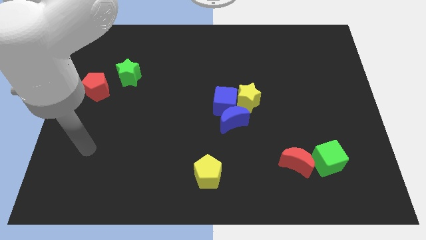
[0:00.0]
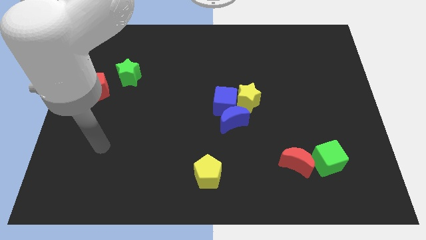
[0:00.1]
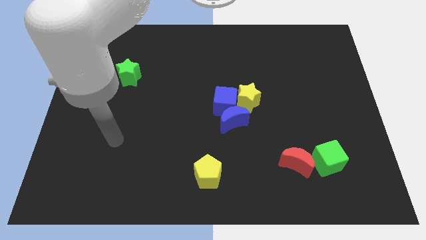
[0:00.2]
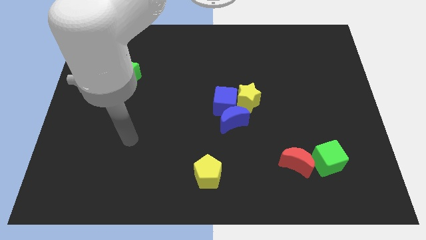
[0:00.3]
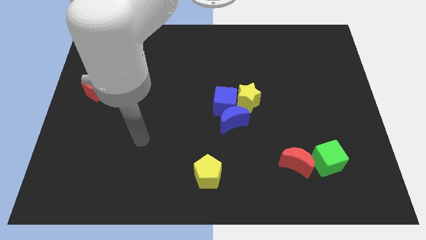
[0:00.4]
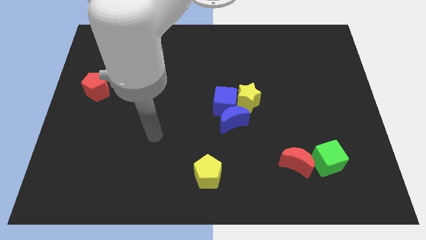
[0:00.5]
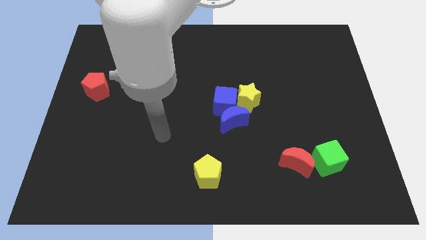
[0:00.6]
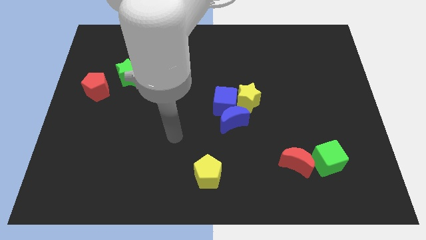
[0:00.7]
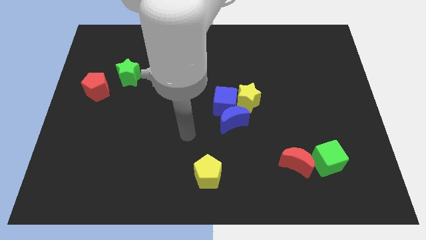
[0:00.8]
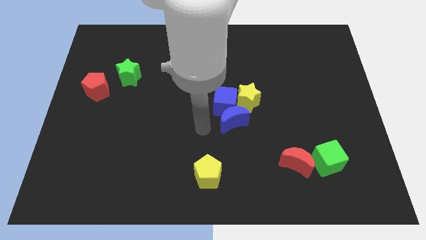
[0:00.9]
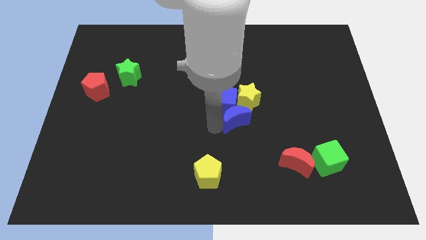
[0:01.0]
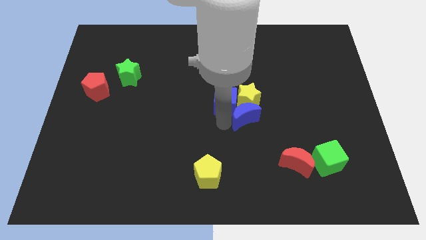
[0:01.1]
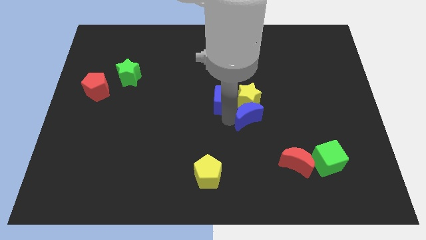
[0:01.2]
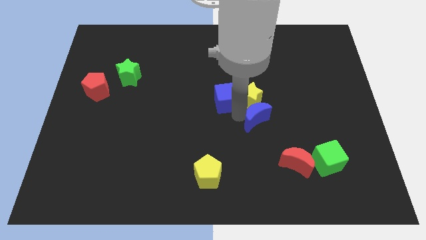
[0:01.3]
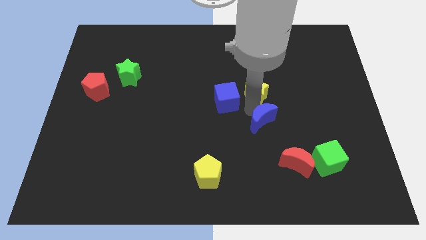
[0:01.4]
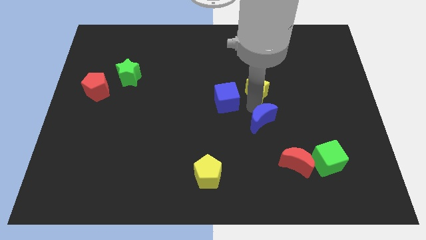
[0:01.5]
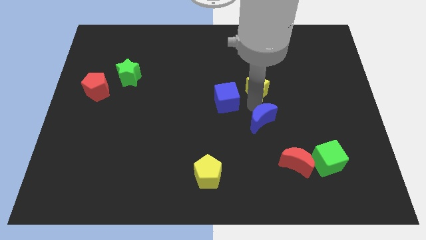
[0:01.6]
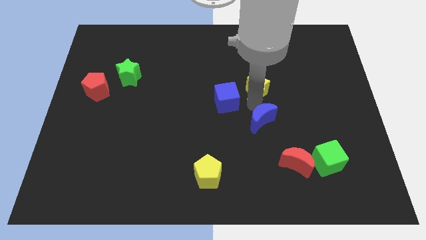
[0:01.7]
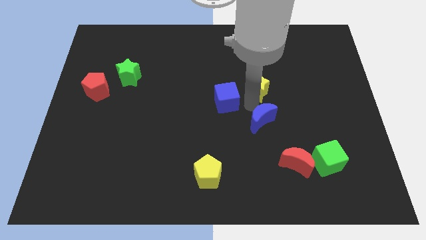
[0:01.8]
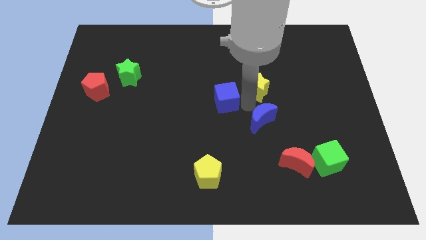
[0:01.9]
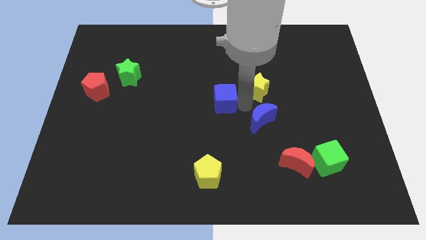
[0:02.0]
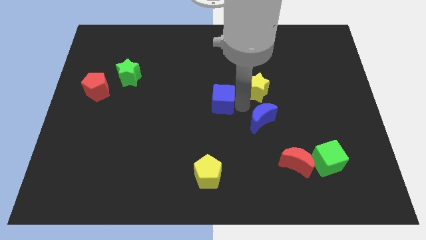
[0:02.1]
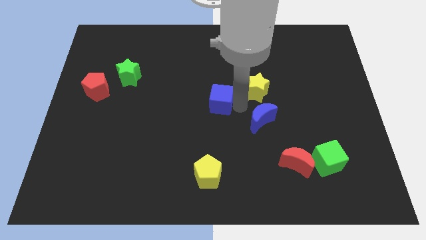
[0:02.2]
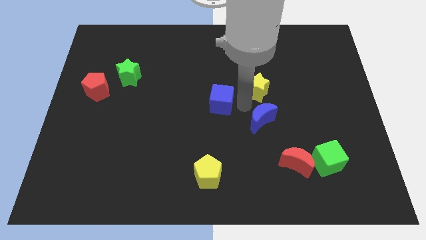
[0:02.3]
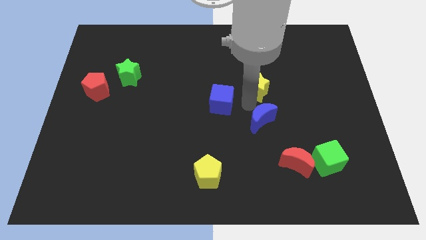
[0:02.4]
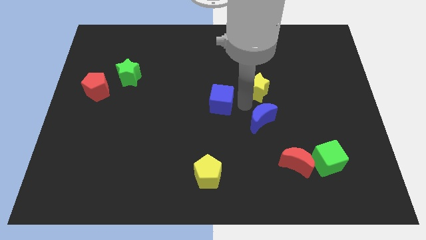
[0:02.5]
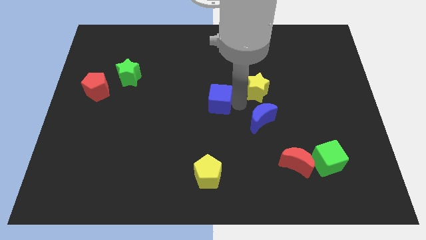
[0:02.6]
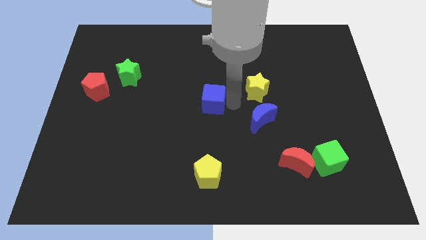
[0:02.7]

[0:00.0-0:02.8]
pull the blue cube apart from the blue moon and yellow star

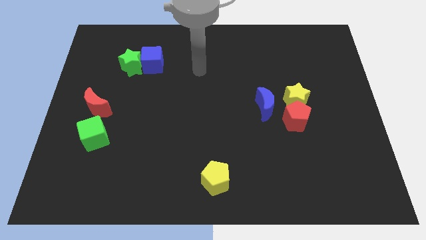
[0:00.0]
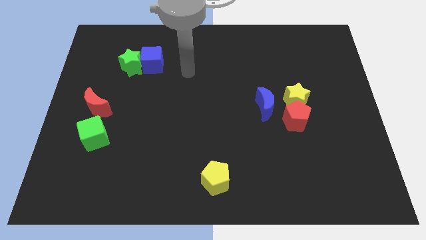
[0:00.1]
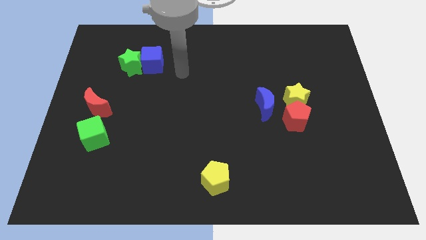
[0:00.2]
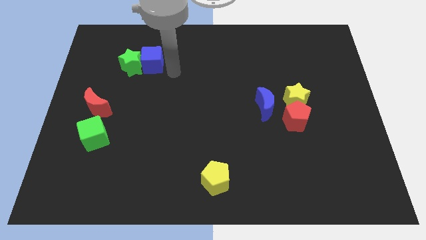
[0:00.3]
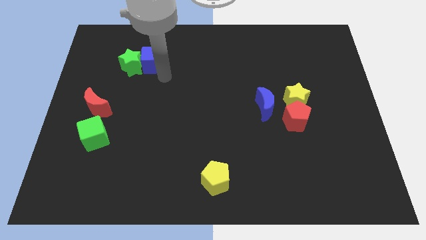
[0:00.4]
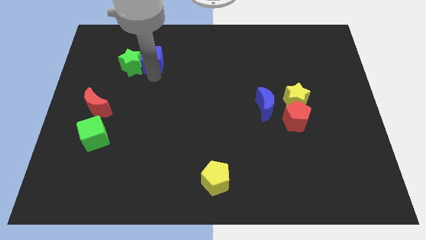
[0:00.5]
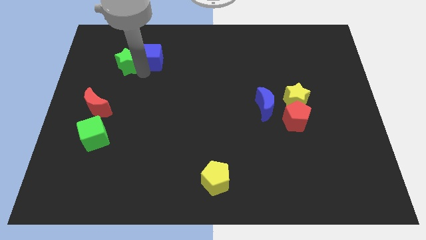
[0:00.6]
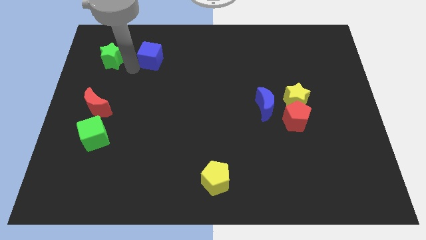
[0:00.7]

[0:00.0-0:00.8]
pull the blue cube apart from the green star

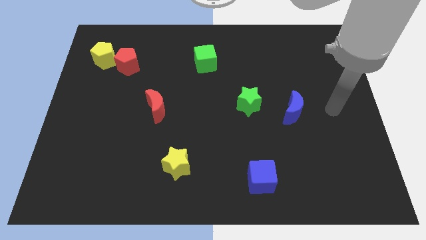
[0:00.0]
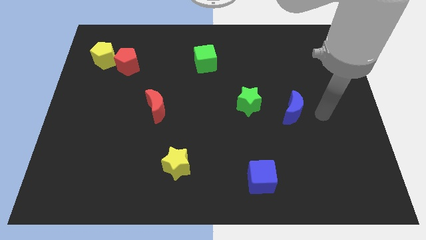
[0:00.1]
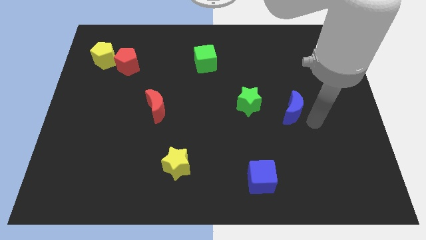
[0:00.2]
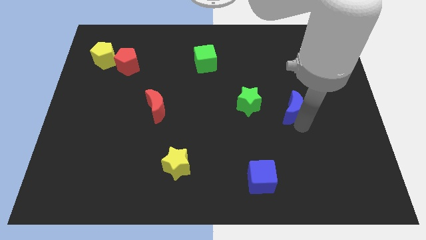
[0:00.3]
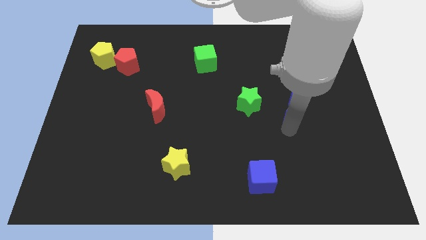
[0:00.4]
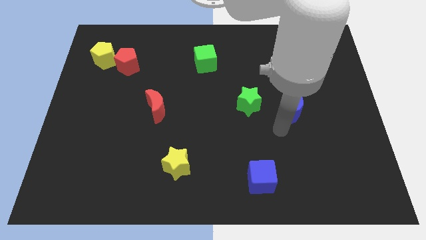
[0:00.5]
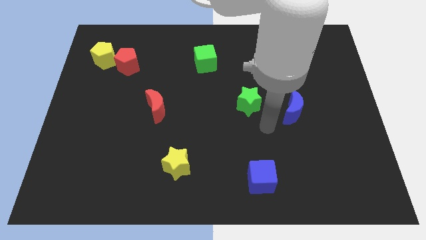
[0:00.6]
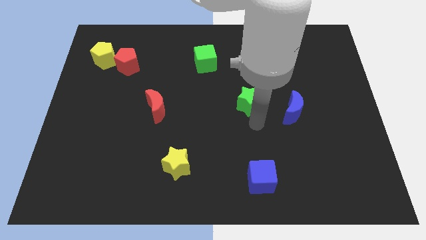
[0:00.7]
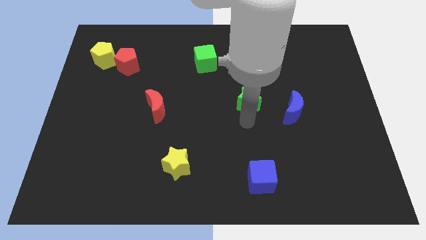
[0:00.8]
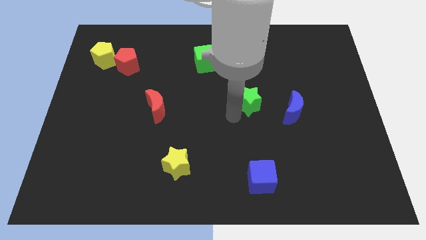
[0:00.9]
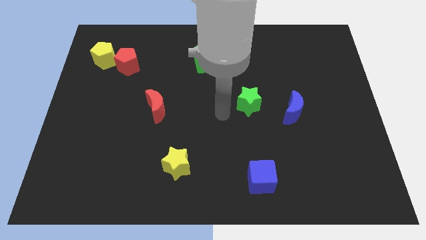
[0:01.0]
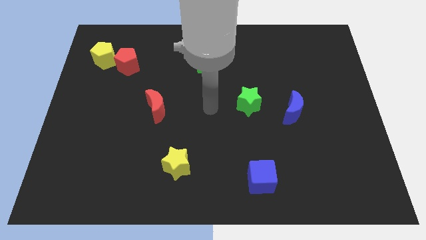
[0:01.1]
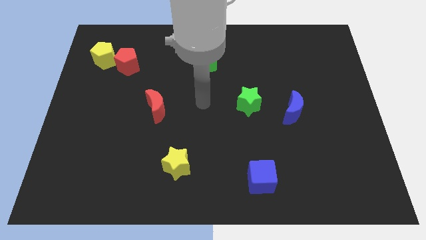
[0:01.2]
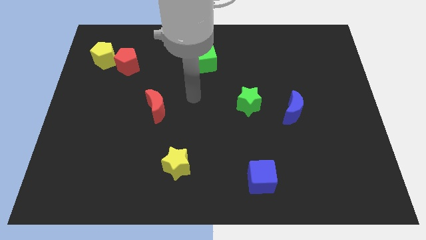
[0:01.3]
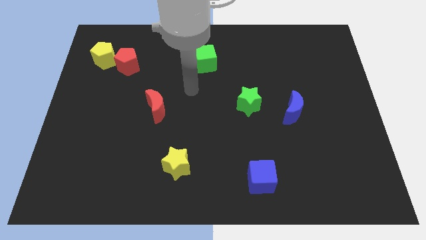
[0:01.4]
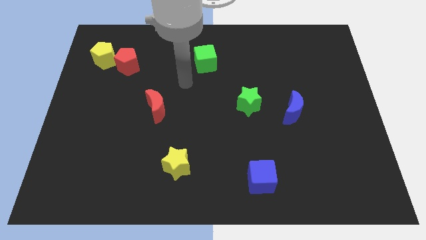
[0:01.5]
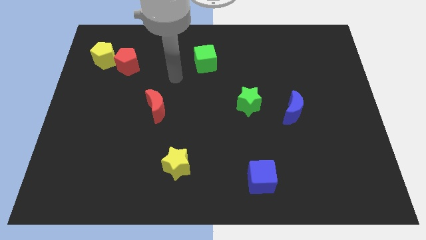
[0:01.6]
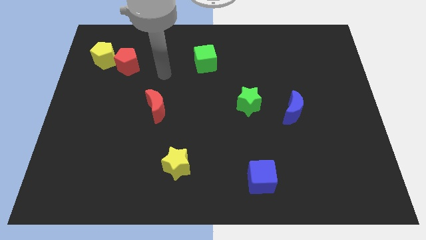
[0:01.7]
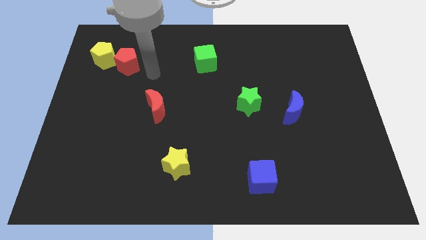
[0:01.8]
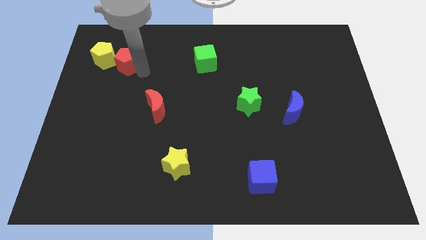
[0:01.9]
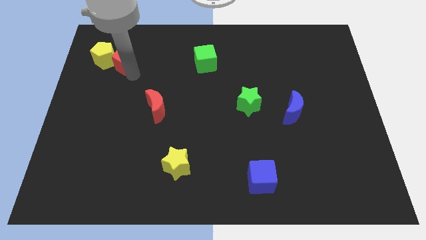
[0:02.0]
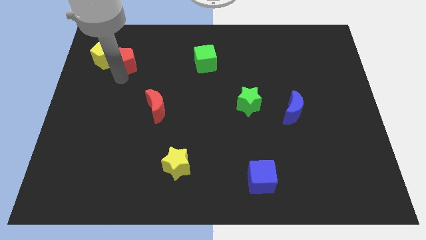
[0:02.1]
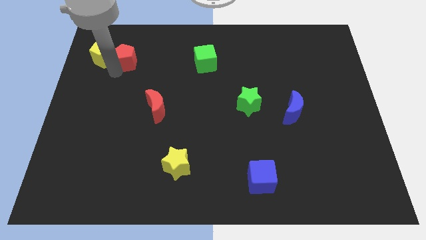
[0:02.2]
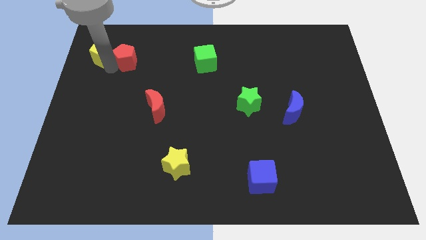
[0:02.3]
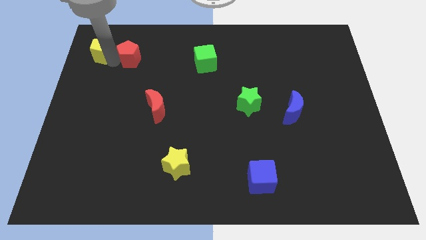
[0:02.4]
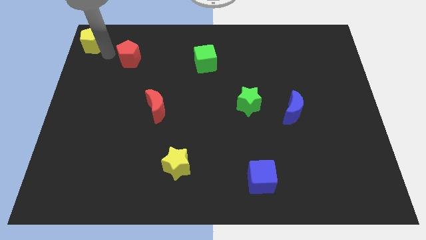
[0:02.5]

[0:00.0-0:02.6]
separate the red pentagon from the yellow pentagon

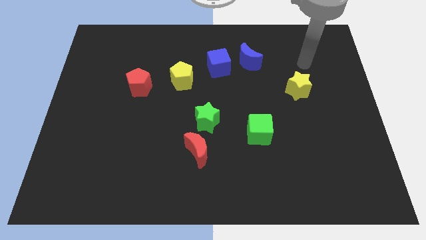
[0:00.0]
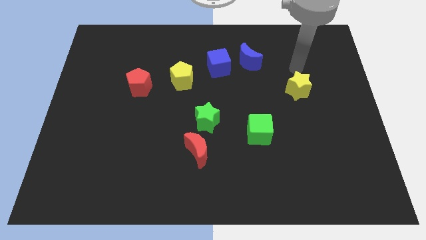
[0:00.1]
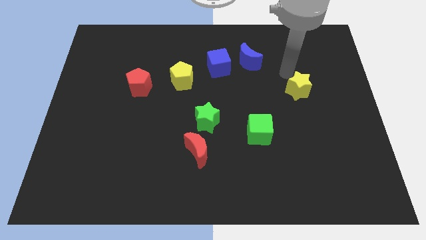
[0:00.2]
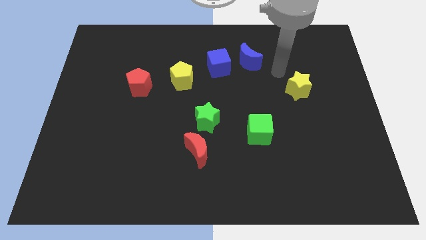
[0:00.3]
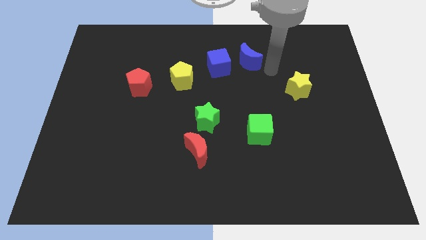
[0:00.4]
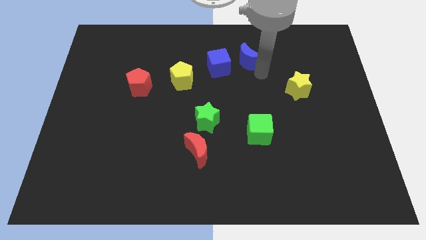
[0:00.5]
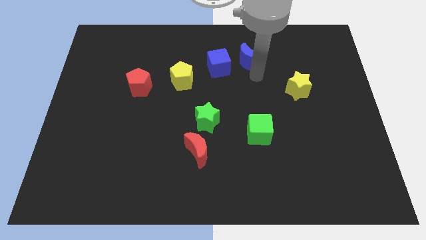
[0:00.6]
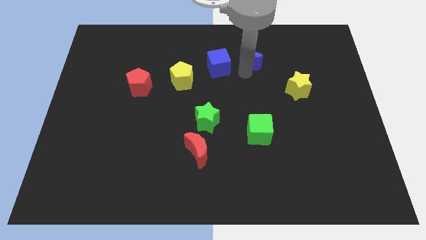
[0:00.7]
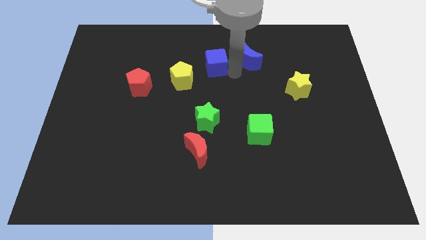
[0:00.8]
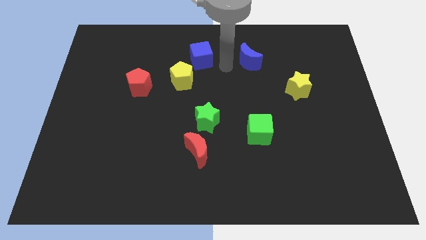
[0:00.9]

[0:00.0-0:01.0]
move the blue moon away from the blue cube

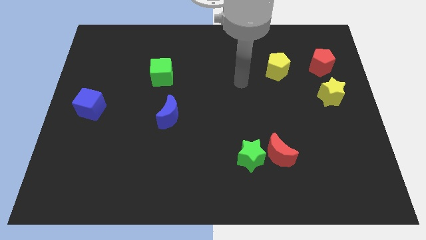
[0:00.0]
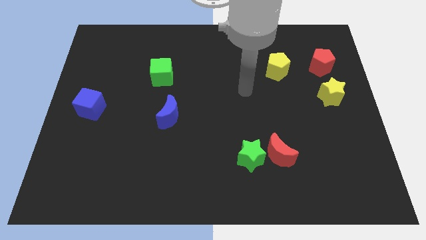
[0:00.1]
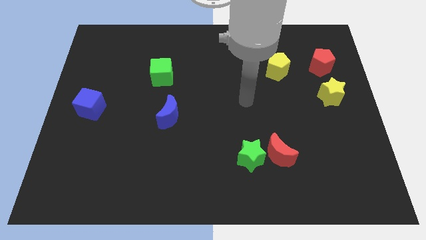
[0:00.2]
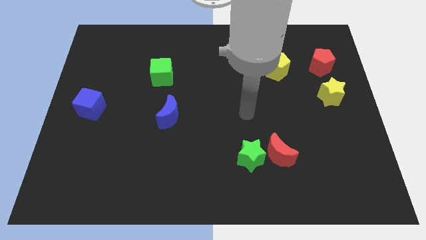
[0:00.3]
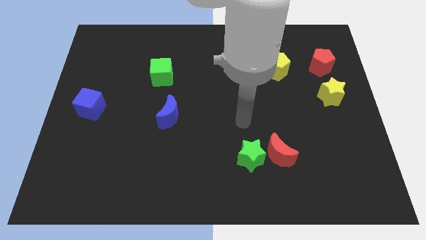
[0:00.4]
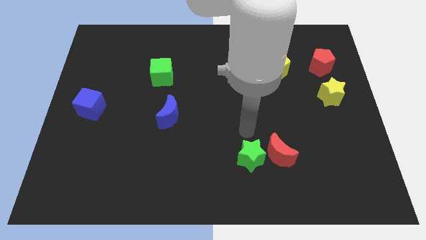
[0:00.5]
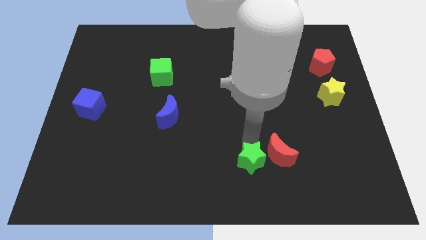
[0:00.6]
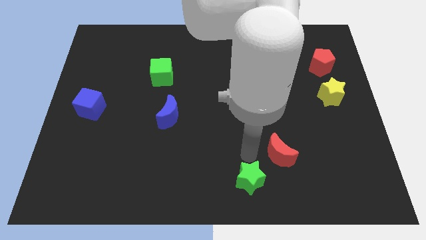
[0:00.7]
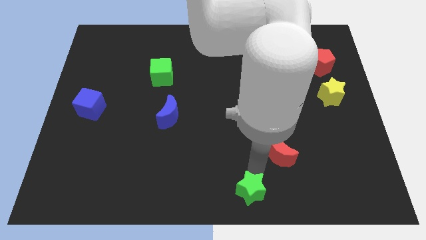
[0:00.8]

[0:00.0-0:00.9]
move the red moon away from the green star

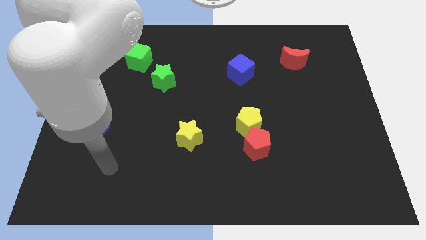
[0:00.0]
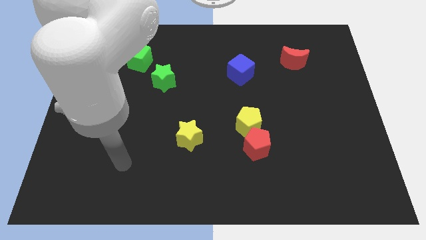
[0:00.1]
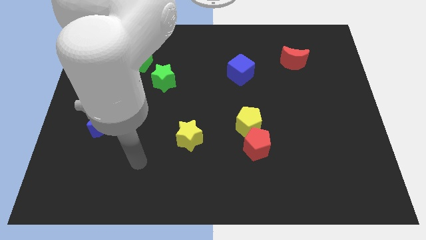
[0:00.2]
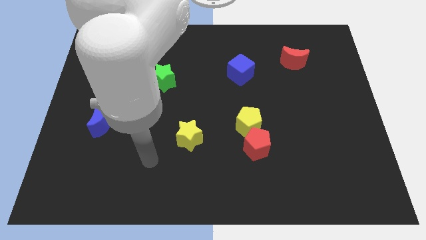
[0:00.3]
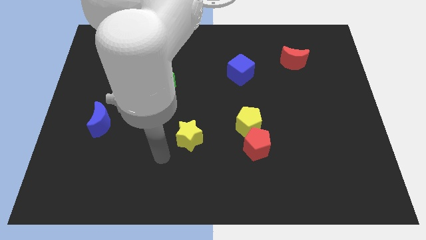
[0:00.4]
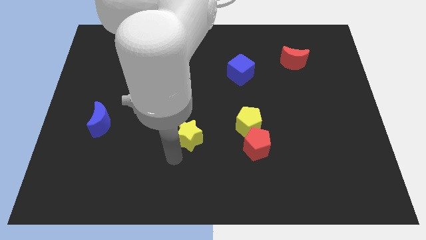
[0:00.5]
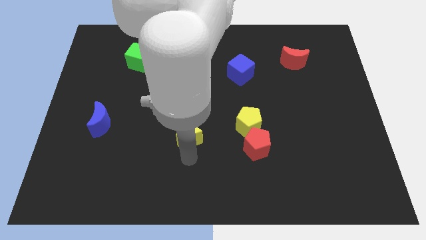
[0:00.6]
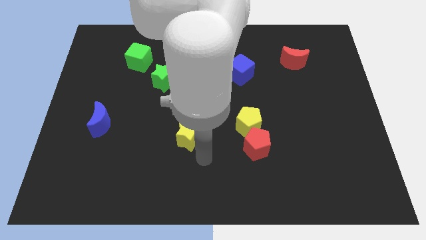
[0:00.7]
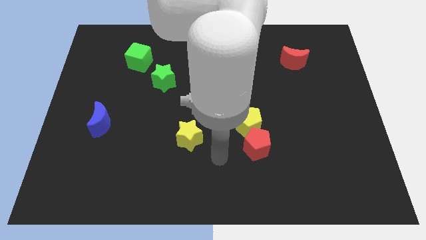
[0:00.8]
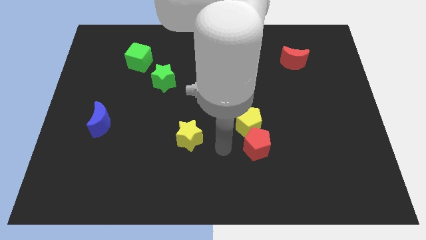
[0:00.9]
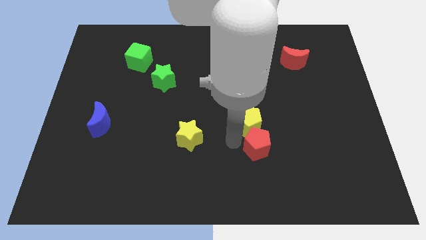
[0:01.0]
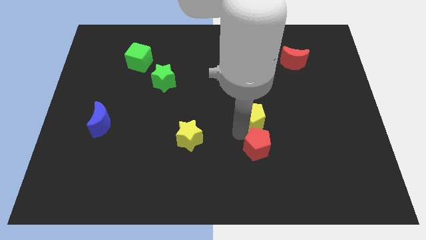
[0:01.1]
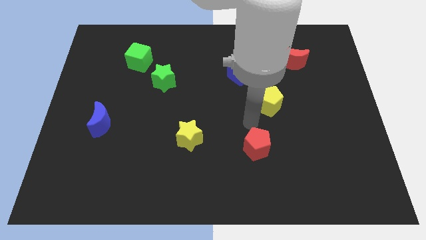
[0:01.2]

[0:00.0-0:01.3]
pull the red pentagon apart from the yellow pentagon
